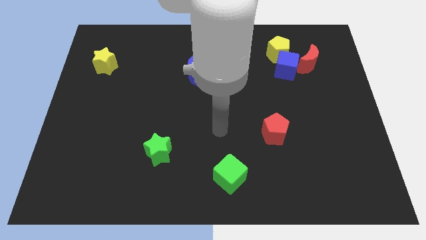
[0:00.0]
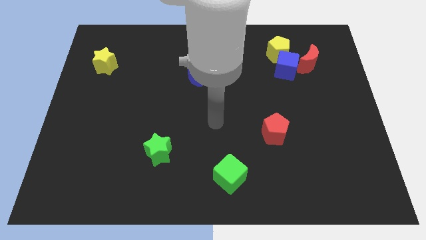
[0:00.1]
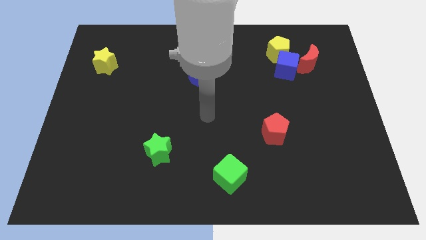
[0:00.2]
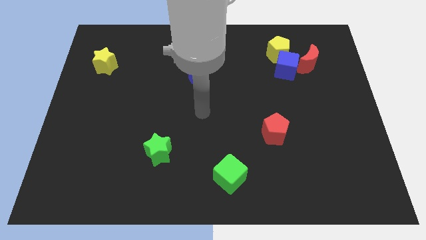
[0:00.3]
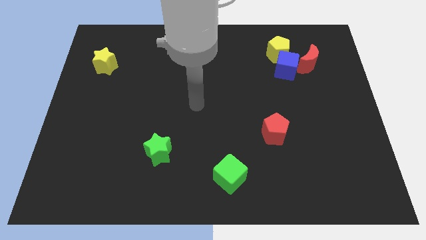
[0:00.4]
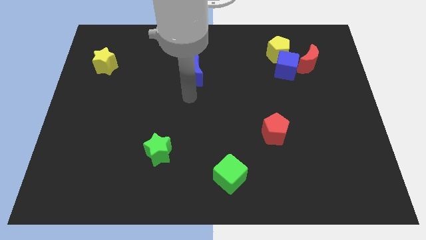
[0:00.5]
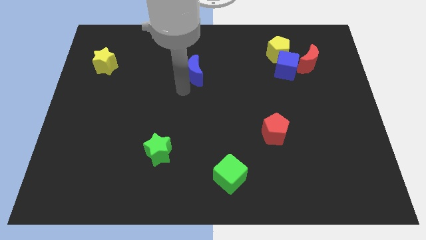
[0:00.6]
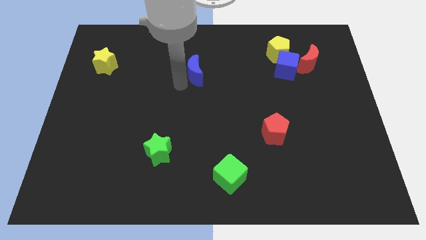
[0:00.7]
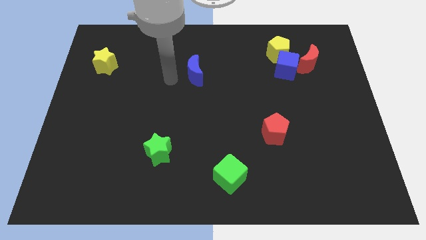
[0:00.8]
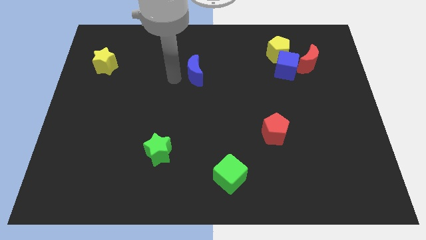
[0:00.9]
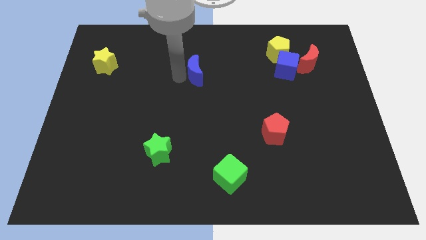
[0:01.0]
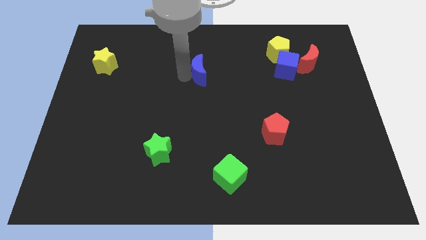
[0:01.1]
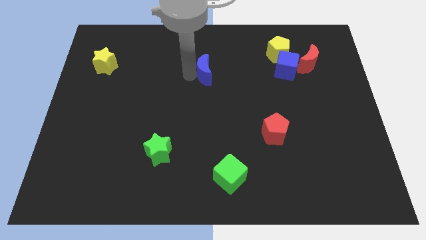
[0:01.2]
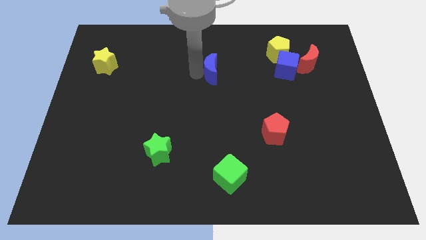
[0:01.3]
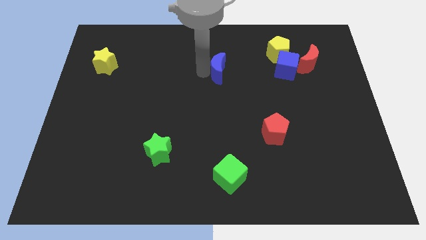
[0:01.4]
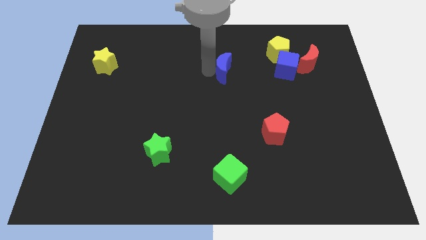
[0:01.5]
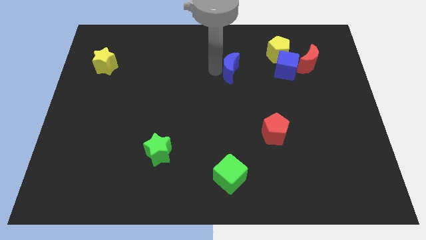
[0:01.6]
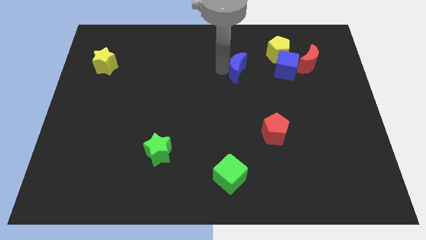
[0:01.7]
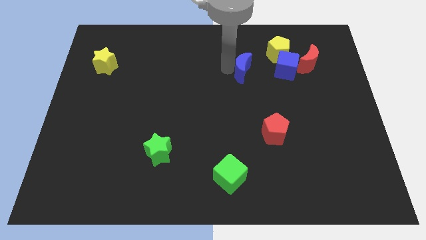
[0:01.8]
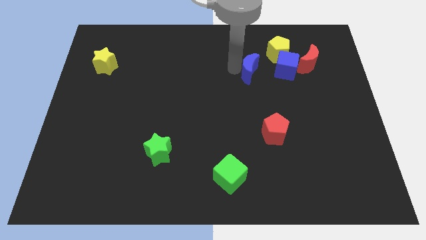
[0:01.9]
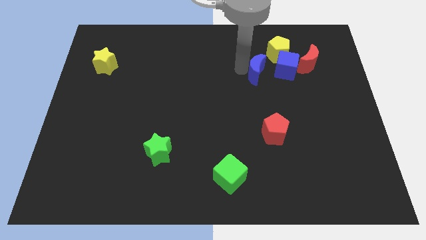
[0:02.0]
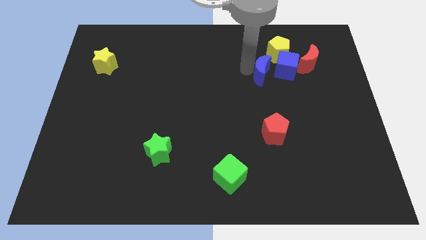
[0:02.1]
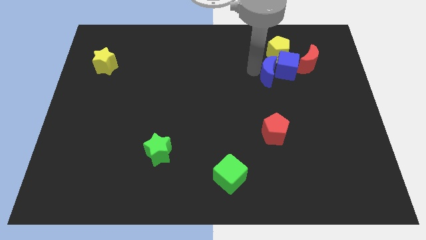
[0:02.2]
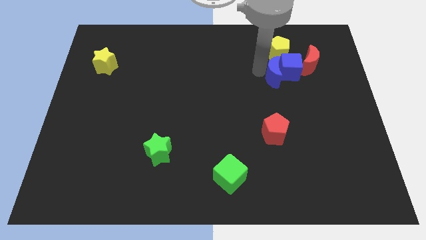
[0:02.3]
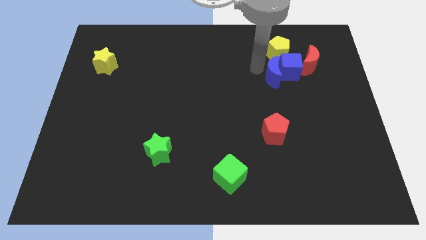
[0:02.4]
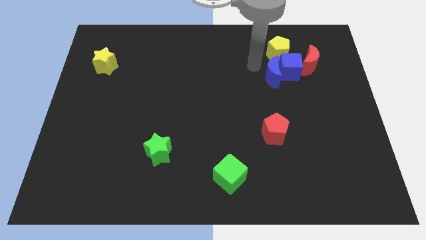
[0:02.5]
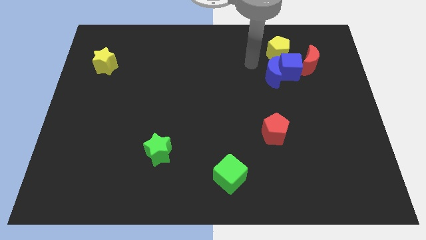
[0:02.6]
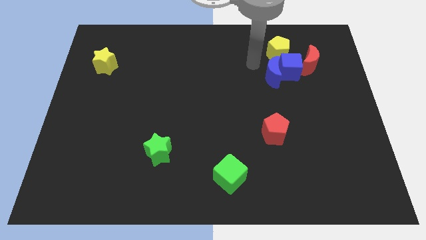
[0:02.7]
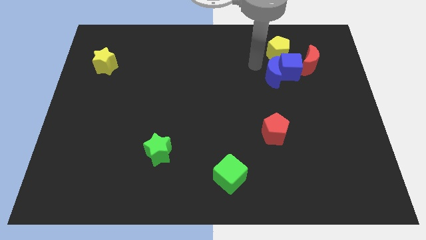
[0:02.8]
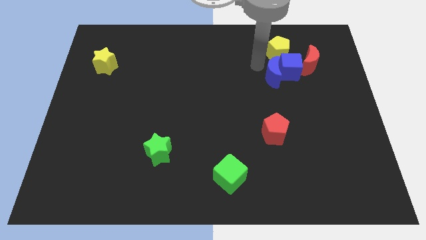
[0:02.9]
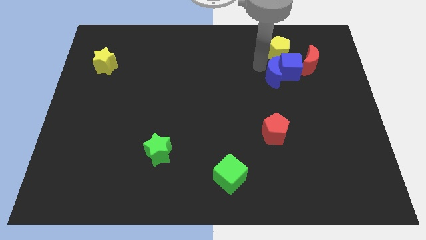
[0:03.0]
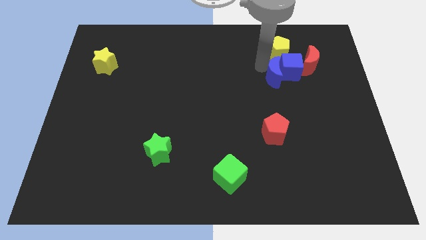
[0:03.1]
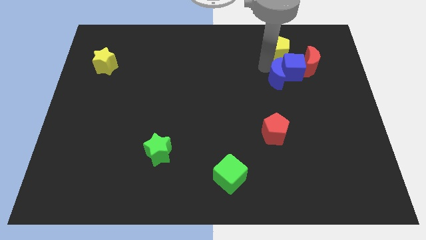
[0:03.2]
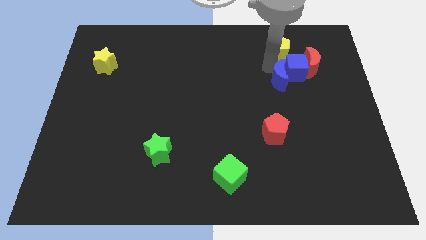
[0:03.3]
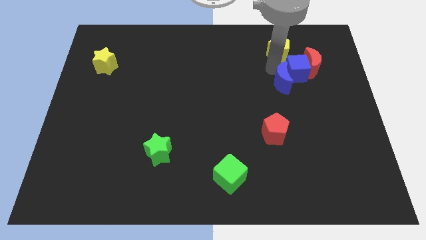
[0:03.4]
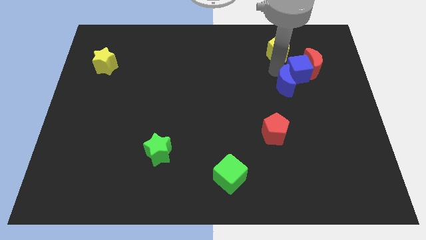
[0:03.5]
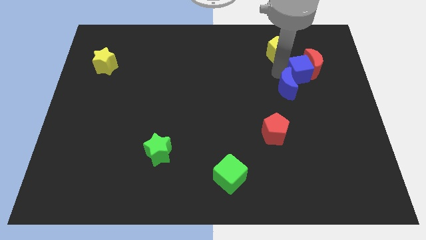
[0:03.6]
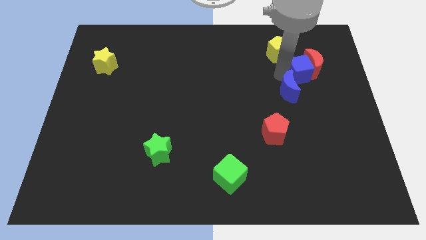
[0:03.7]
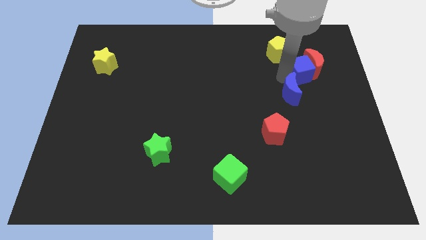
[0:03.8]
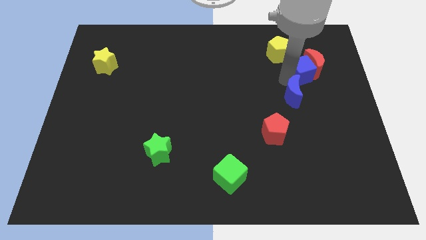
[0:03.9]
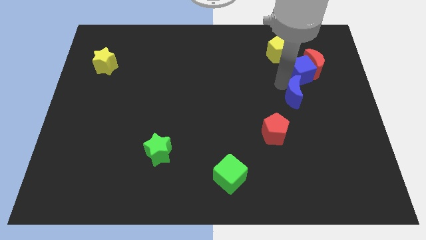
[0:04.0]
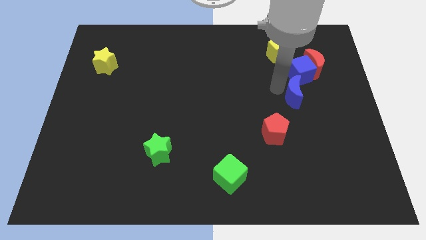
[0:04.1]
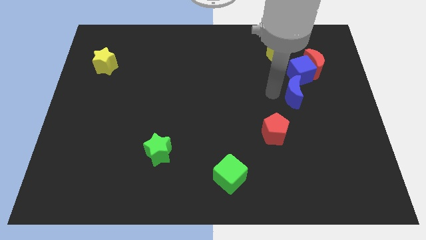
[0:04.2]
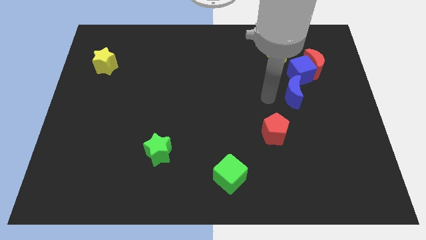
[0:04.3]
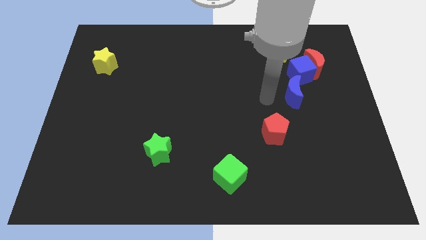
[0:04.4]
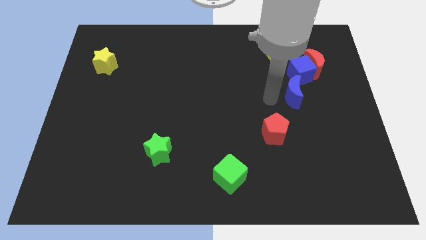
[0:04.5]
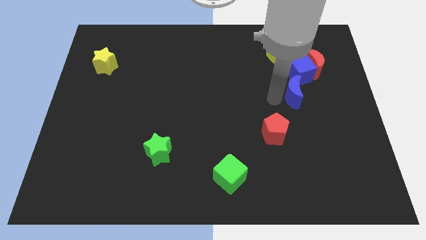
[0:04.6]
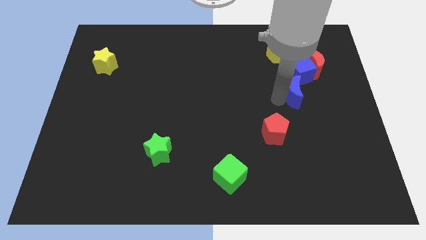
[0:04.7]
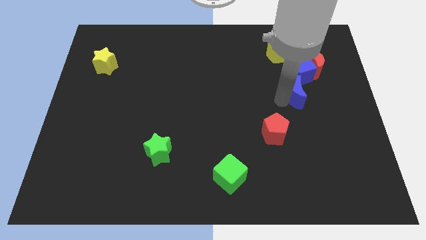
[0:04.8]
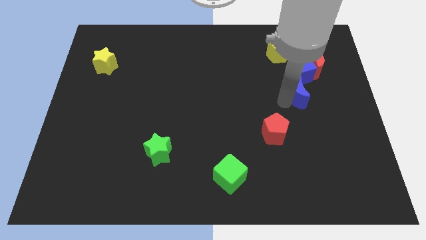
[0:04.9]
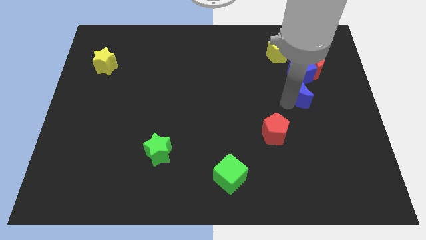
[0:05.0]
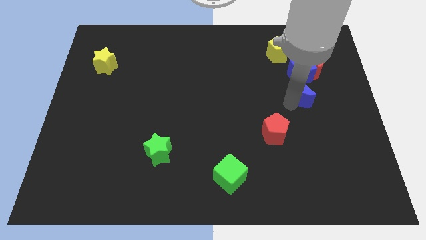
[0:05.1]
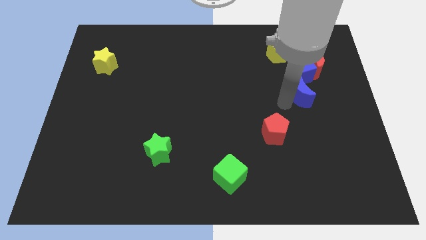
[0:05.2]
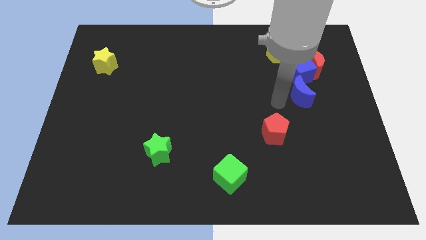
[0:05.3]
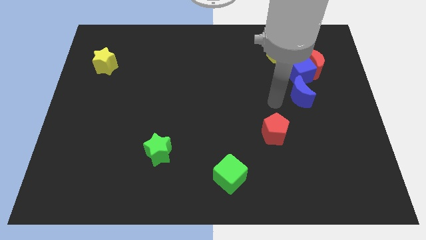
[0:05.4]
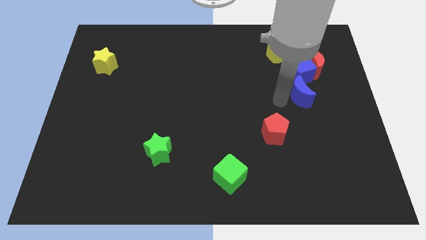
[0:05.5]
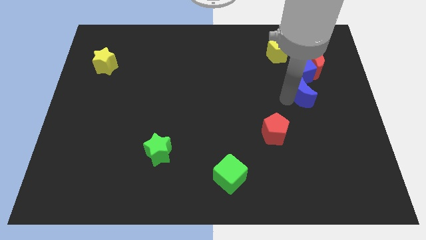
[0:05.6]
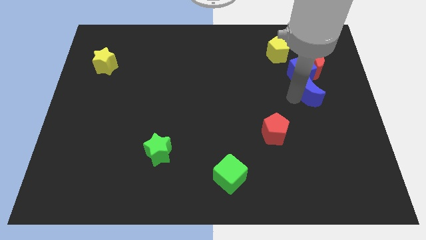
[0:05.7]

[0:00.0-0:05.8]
push the blue moon diagonally down and to the right of the blue cube

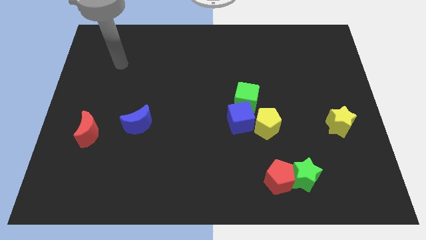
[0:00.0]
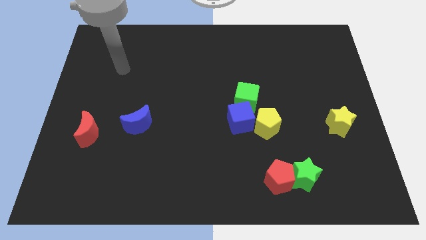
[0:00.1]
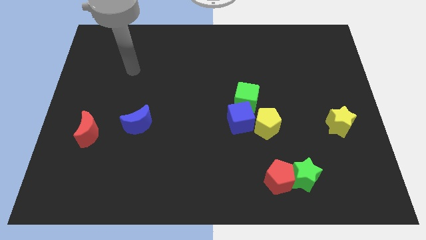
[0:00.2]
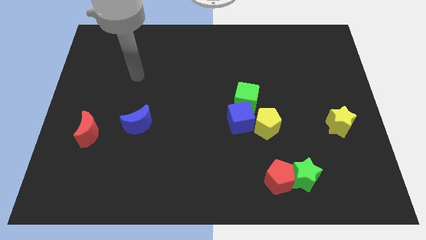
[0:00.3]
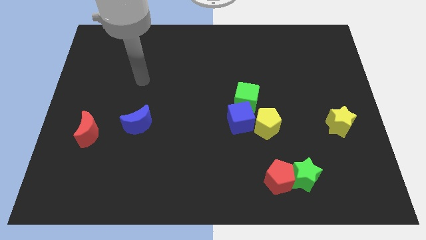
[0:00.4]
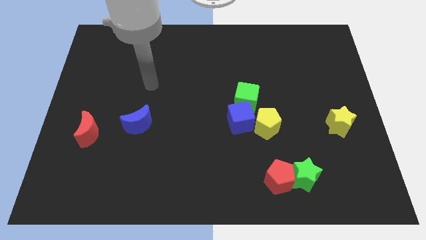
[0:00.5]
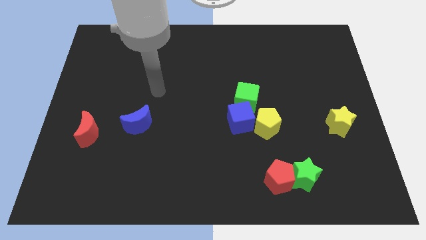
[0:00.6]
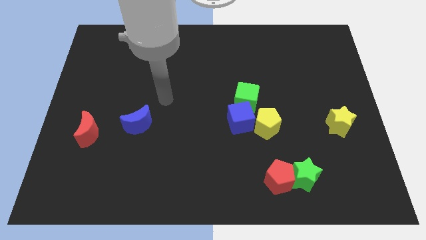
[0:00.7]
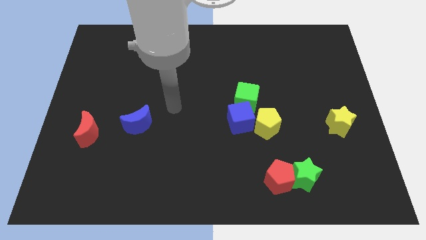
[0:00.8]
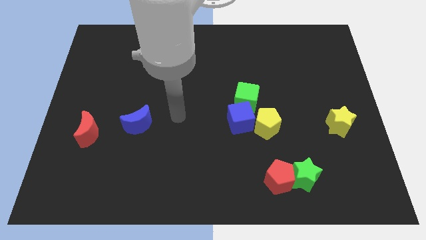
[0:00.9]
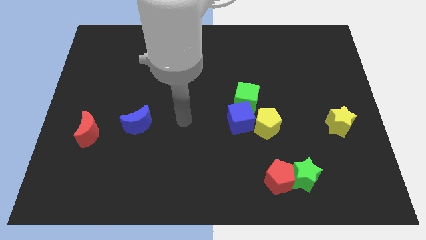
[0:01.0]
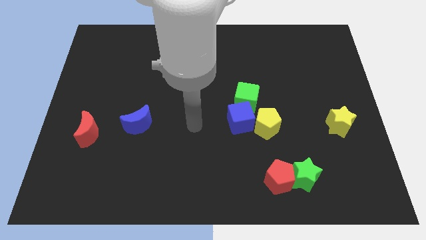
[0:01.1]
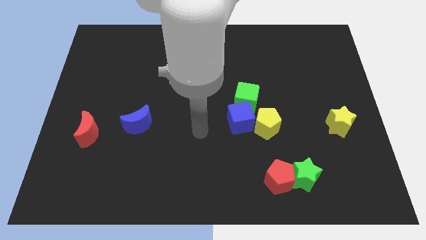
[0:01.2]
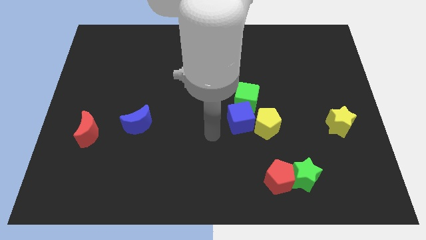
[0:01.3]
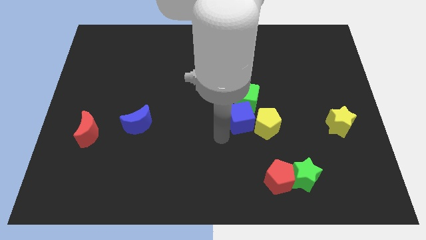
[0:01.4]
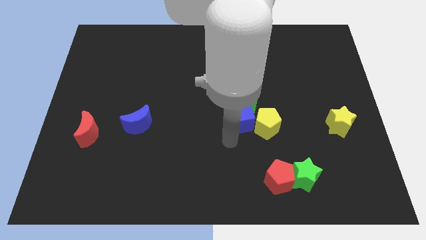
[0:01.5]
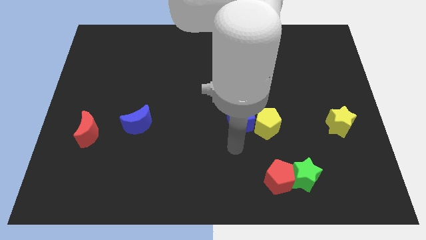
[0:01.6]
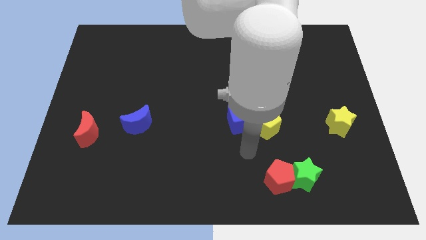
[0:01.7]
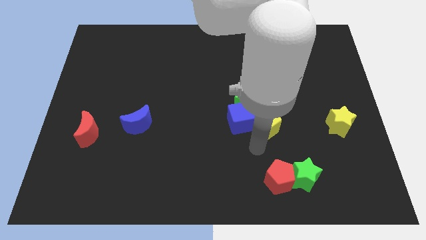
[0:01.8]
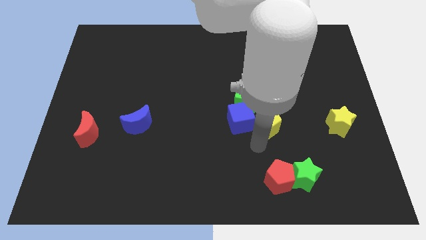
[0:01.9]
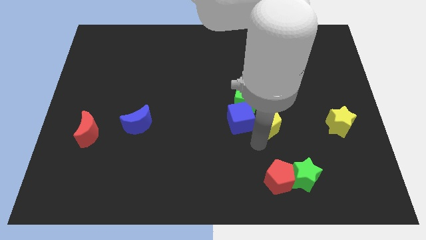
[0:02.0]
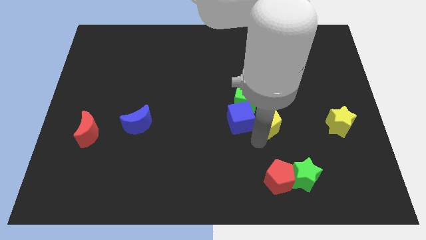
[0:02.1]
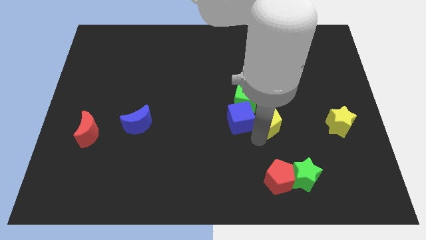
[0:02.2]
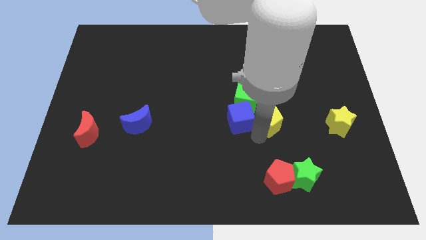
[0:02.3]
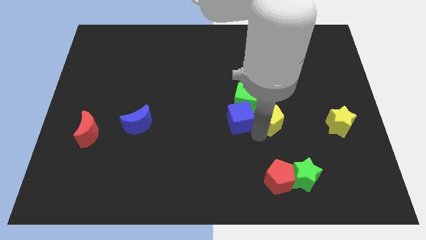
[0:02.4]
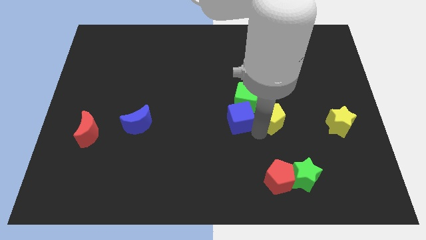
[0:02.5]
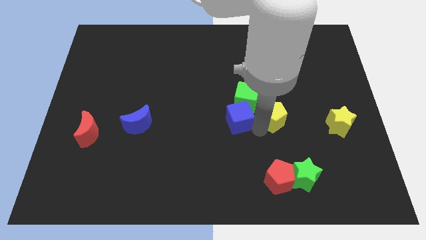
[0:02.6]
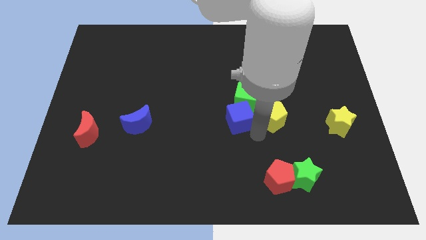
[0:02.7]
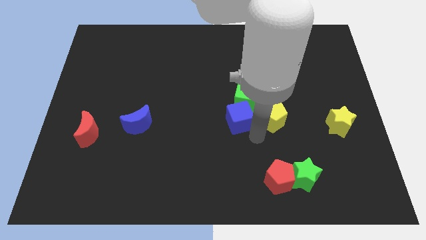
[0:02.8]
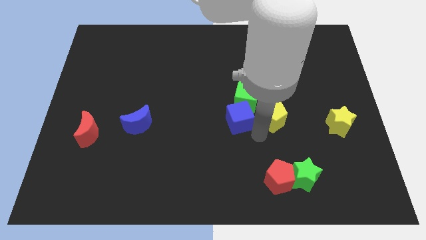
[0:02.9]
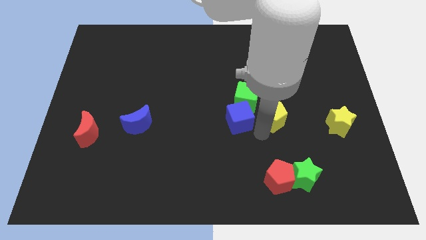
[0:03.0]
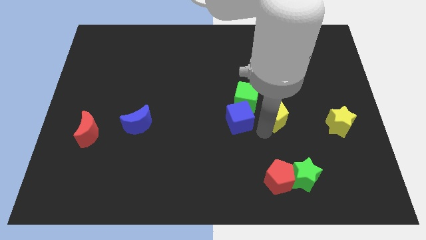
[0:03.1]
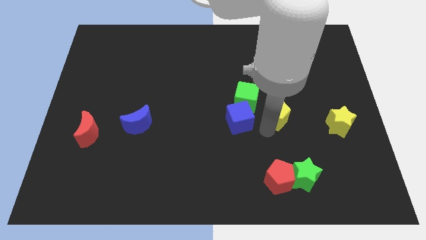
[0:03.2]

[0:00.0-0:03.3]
move the yellow pentagon to the right side of the green cube
